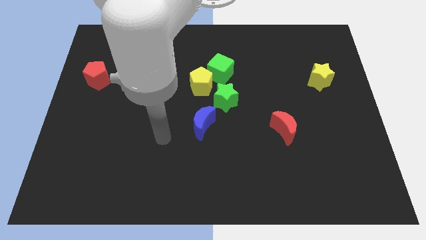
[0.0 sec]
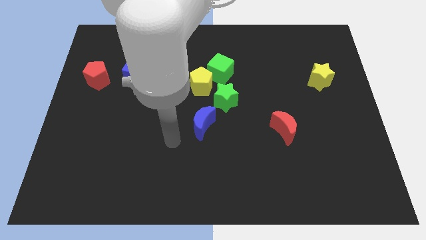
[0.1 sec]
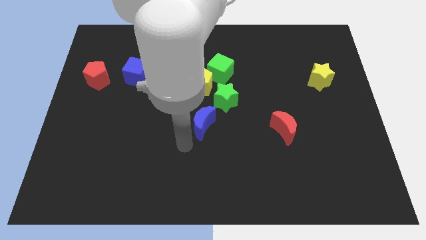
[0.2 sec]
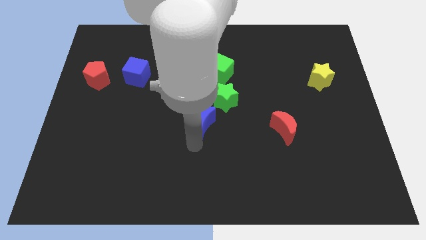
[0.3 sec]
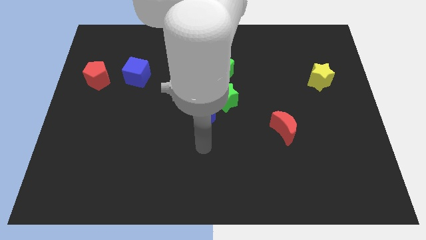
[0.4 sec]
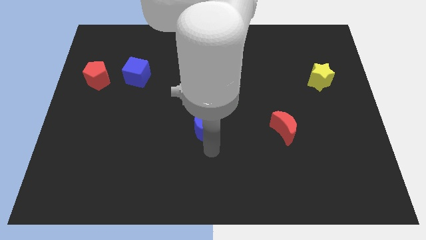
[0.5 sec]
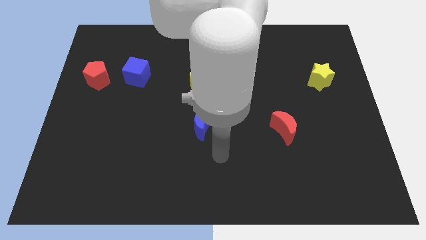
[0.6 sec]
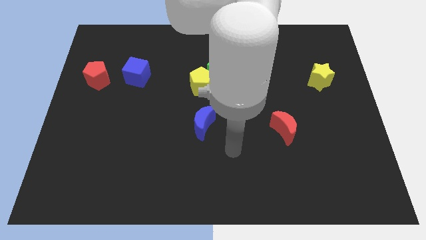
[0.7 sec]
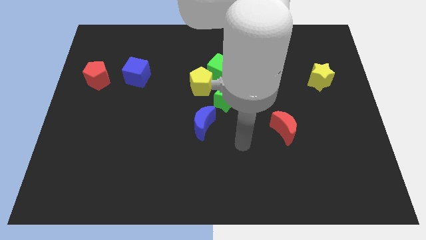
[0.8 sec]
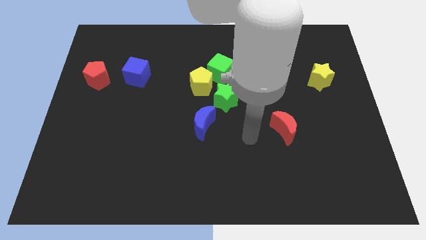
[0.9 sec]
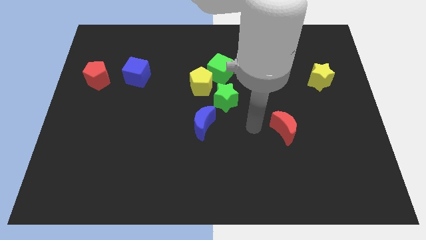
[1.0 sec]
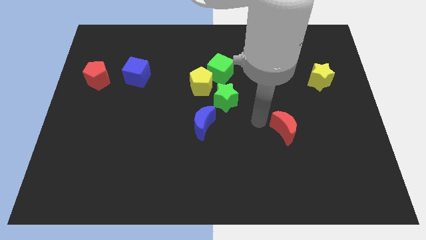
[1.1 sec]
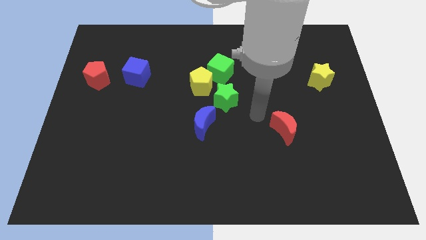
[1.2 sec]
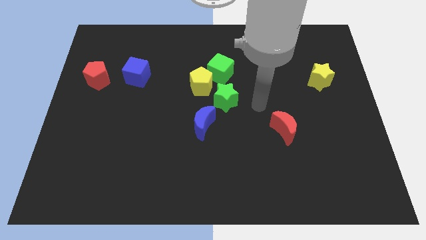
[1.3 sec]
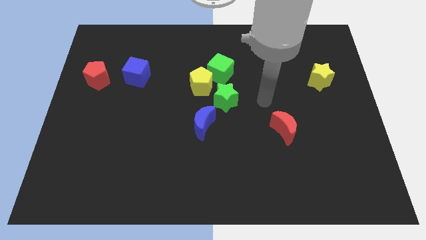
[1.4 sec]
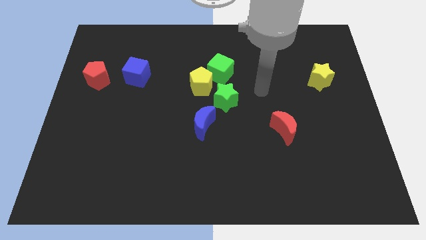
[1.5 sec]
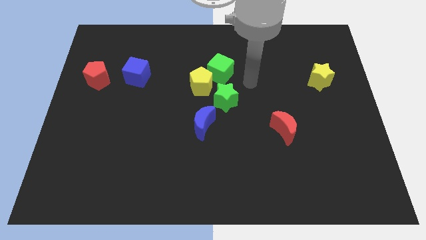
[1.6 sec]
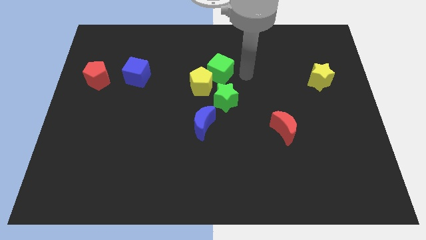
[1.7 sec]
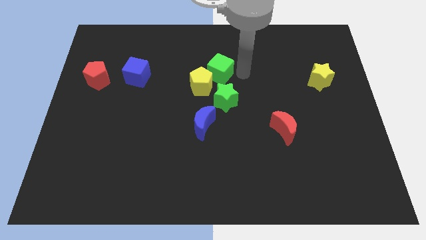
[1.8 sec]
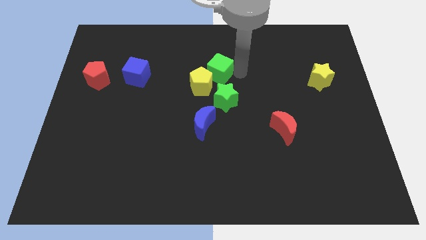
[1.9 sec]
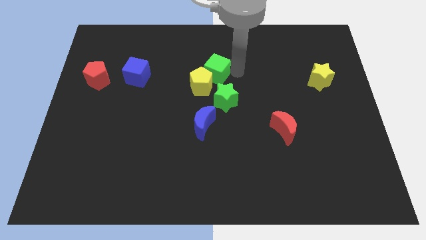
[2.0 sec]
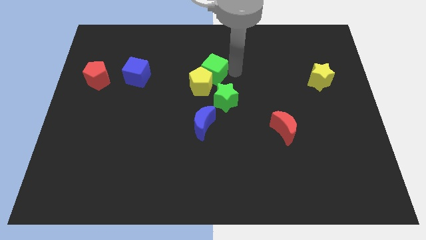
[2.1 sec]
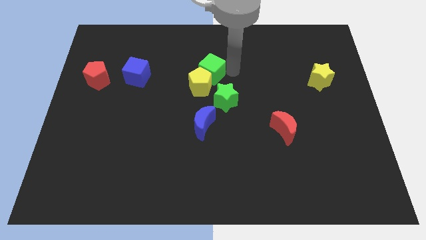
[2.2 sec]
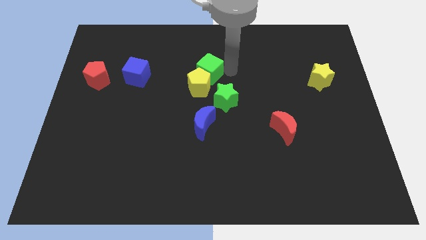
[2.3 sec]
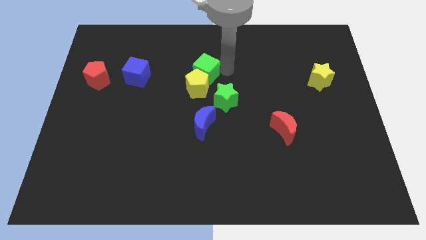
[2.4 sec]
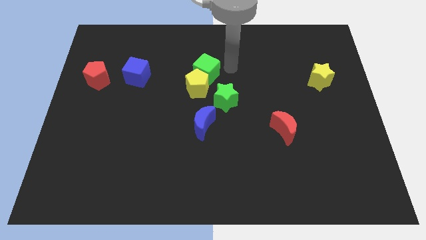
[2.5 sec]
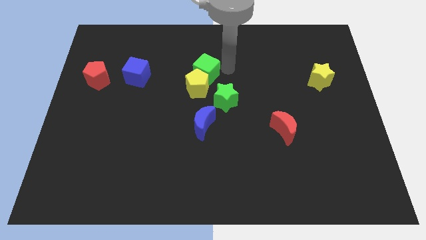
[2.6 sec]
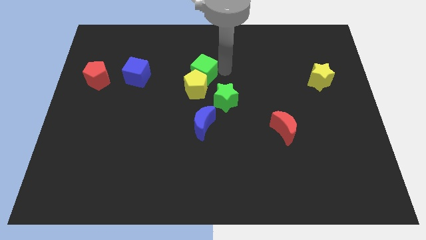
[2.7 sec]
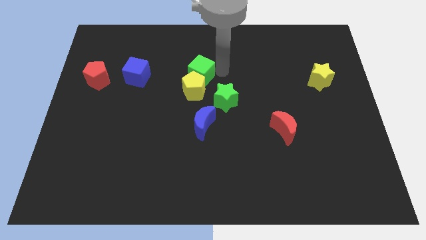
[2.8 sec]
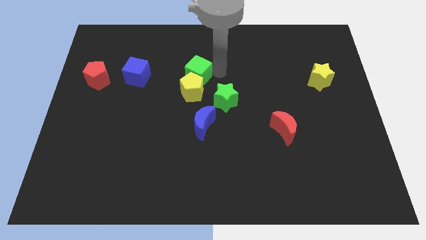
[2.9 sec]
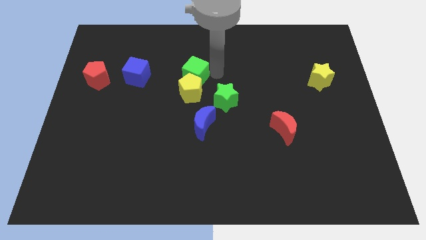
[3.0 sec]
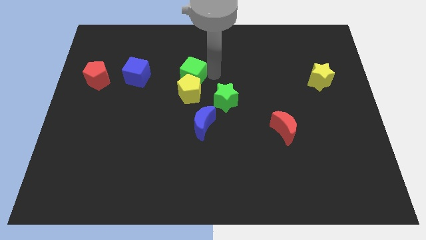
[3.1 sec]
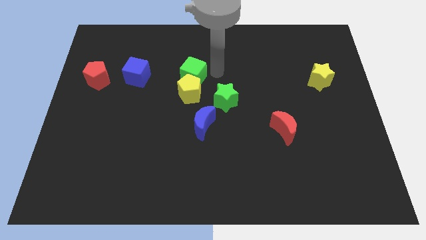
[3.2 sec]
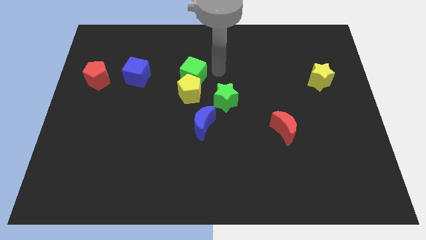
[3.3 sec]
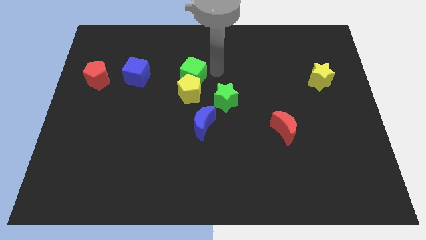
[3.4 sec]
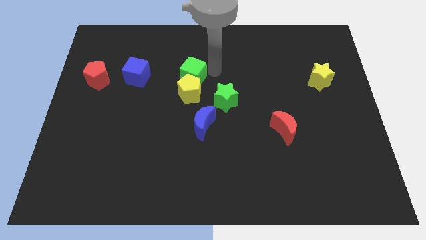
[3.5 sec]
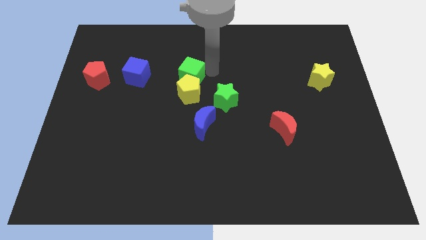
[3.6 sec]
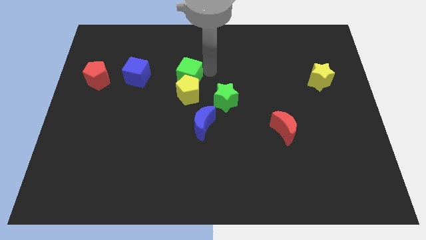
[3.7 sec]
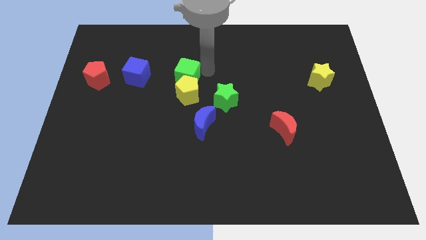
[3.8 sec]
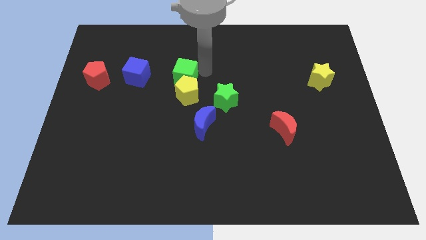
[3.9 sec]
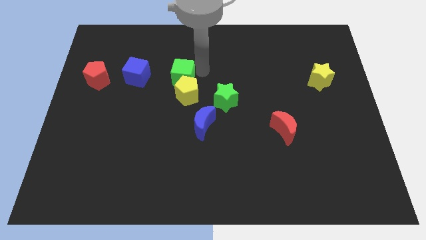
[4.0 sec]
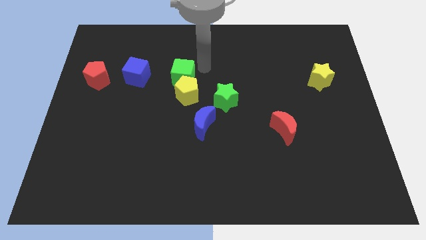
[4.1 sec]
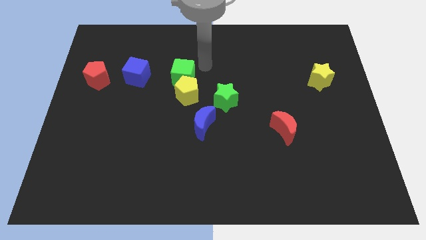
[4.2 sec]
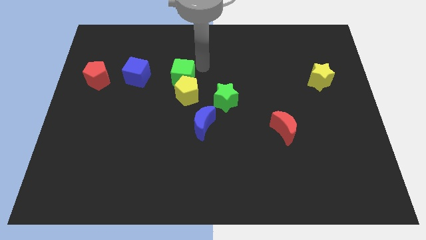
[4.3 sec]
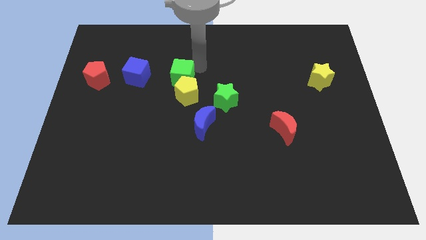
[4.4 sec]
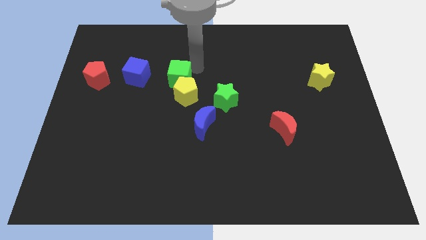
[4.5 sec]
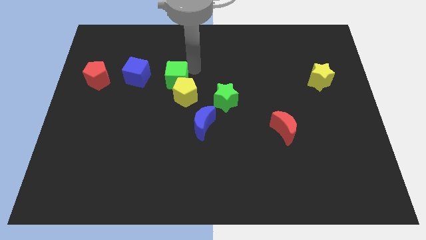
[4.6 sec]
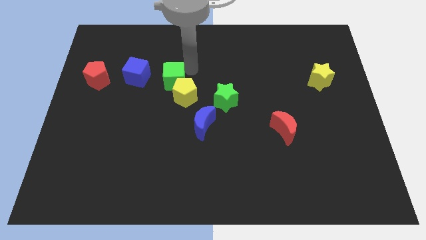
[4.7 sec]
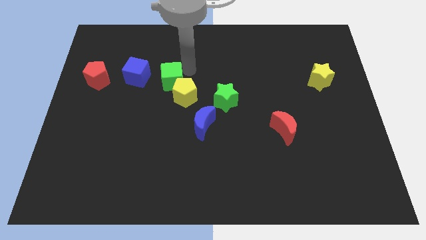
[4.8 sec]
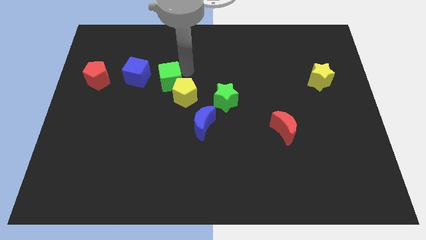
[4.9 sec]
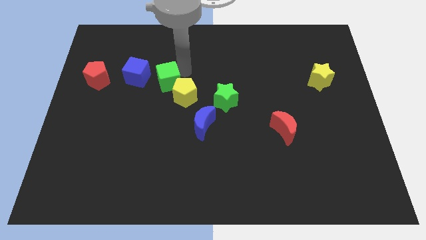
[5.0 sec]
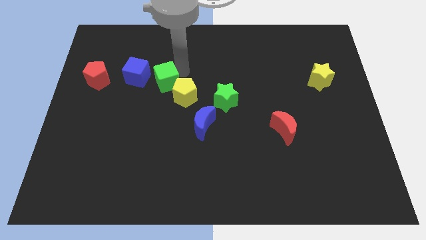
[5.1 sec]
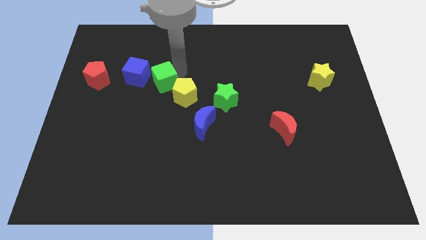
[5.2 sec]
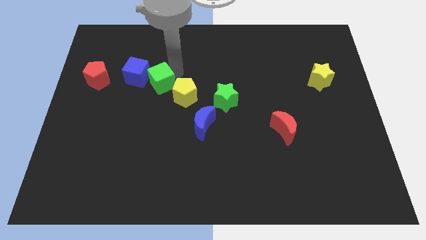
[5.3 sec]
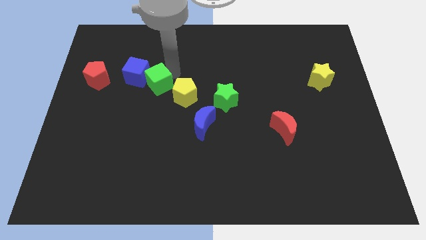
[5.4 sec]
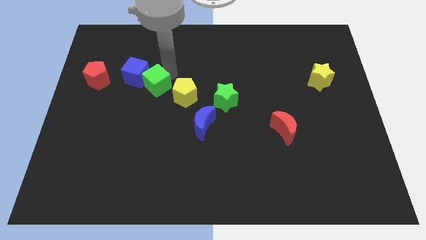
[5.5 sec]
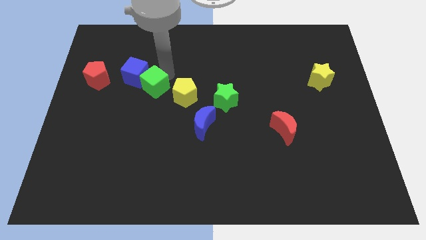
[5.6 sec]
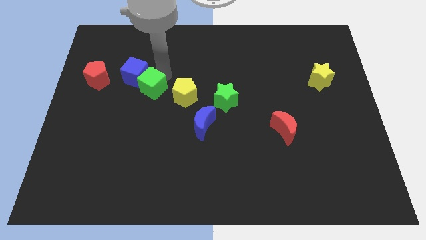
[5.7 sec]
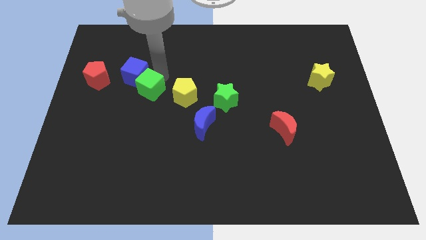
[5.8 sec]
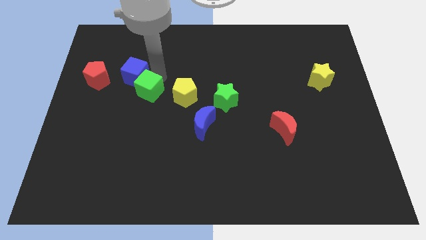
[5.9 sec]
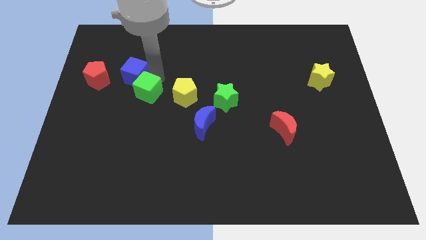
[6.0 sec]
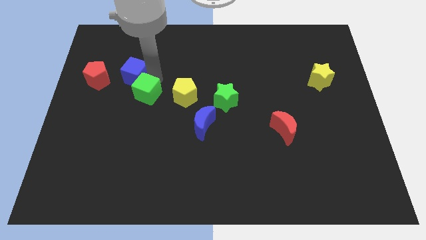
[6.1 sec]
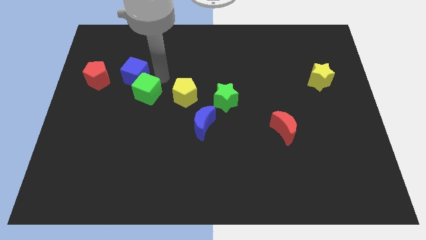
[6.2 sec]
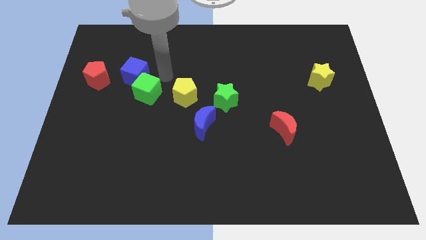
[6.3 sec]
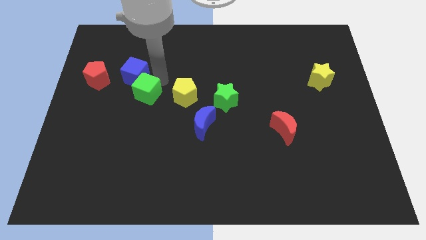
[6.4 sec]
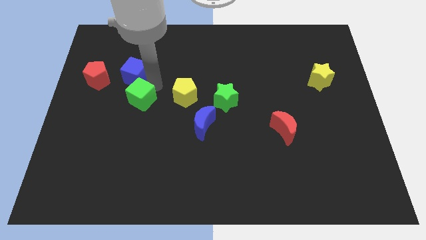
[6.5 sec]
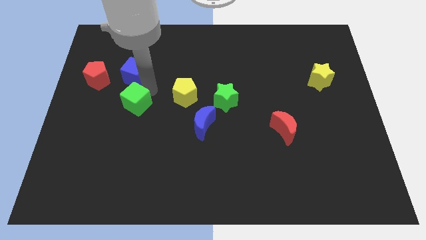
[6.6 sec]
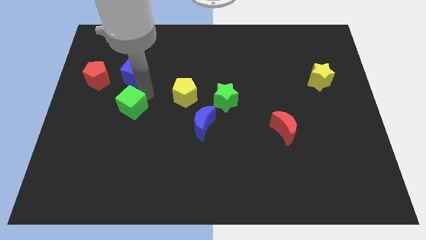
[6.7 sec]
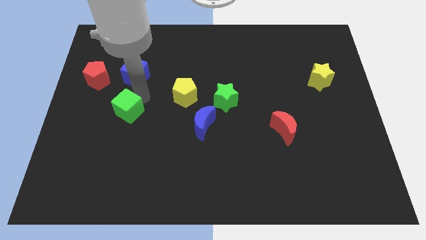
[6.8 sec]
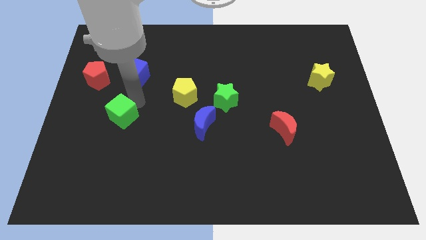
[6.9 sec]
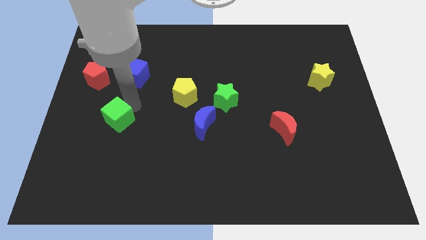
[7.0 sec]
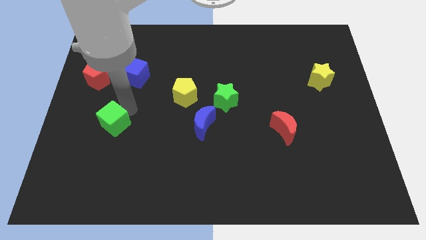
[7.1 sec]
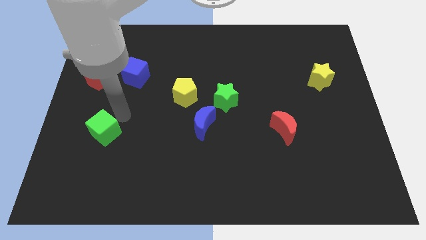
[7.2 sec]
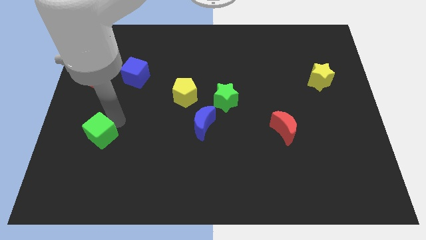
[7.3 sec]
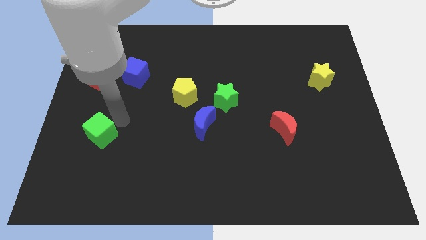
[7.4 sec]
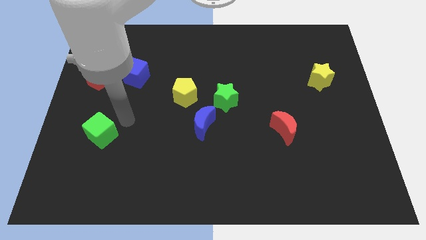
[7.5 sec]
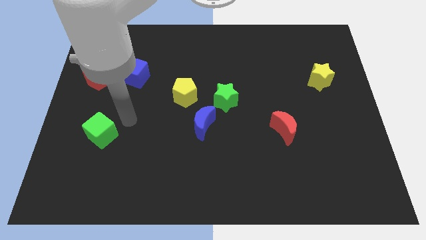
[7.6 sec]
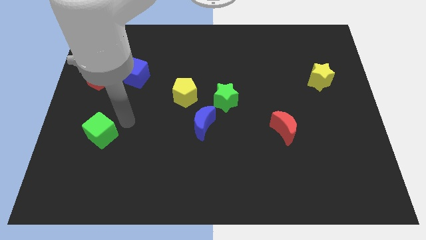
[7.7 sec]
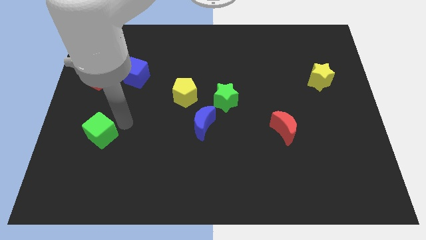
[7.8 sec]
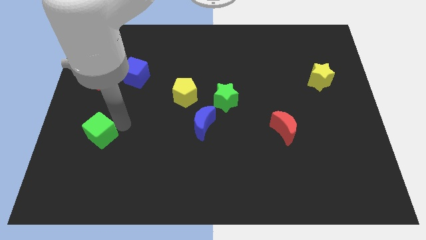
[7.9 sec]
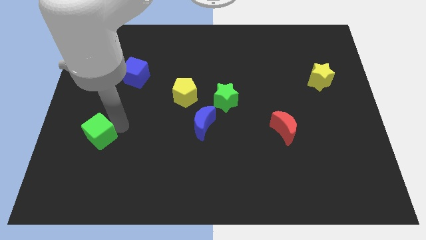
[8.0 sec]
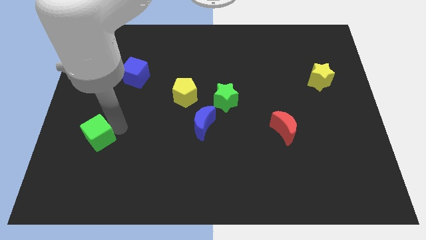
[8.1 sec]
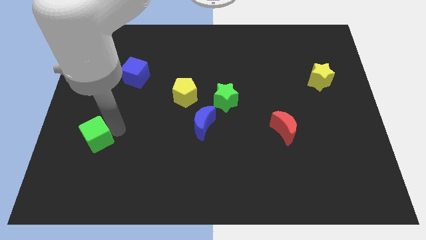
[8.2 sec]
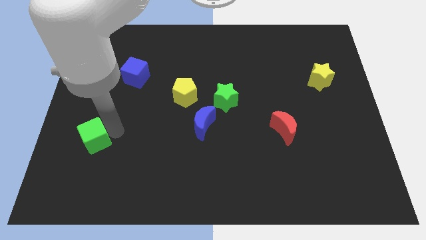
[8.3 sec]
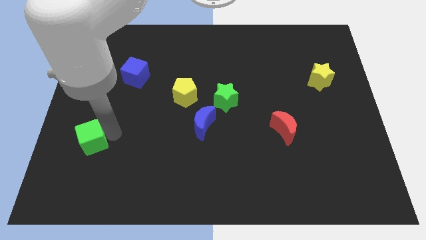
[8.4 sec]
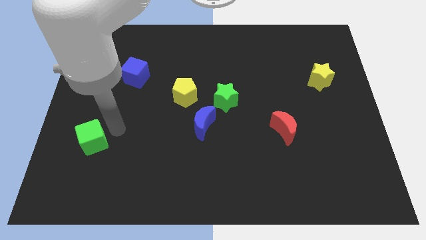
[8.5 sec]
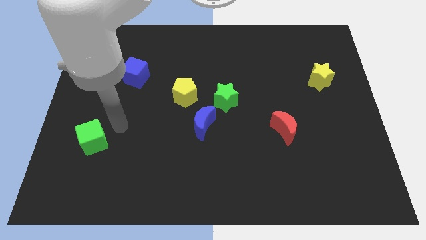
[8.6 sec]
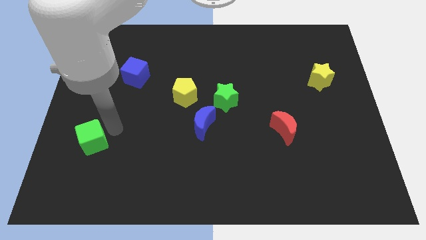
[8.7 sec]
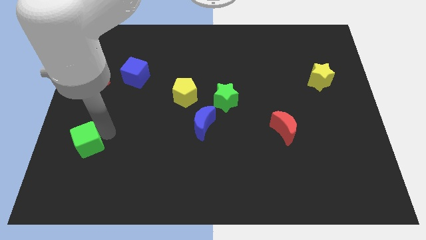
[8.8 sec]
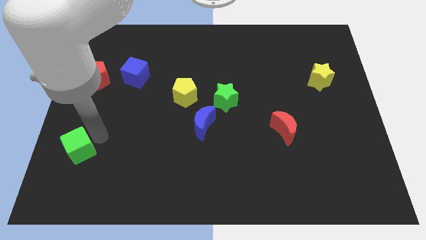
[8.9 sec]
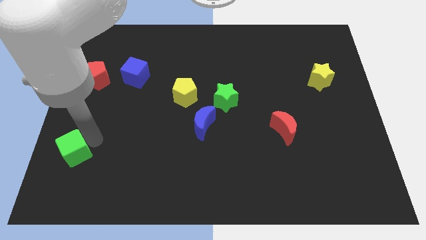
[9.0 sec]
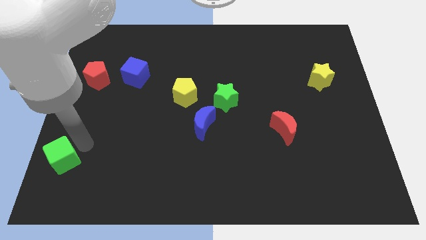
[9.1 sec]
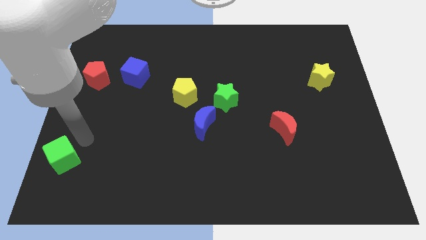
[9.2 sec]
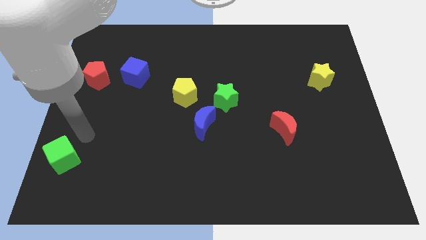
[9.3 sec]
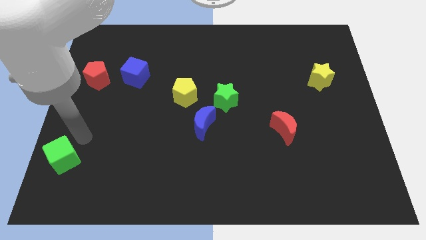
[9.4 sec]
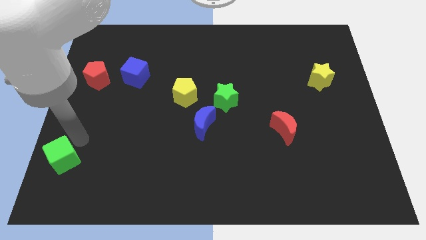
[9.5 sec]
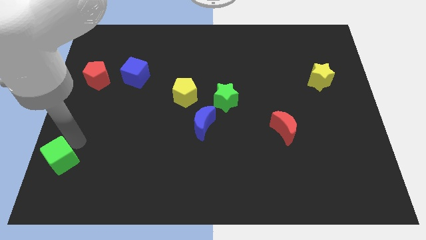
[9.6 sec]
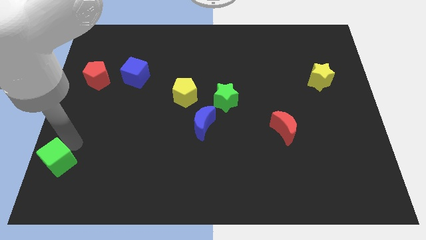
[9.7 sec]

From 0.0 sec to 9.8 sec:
move the green cube to the bottom left corner
